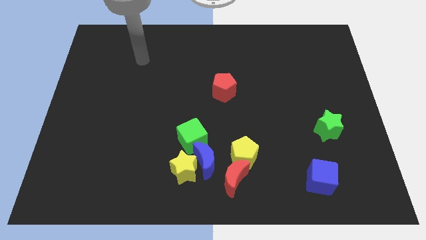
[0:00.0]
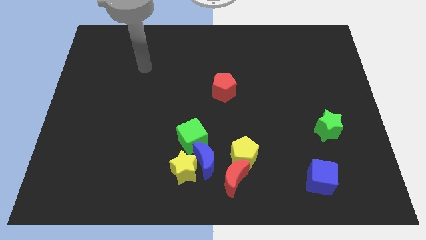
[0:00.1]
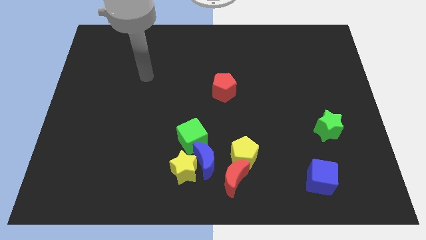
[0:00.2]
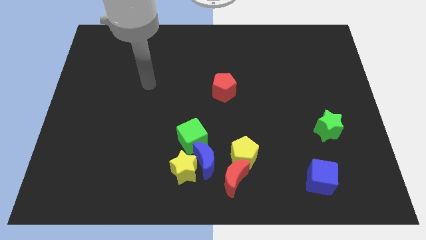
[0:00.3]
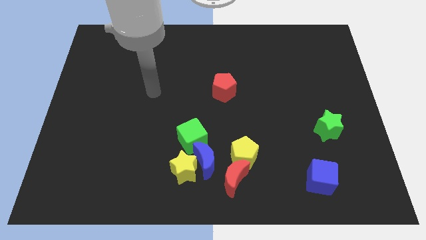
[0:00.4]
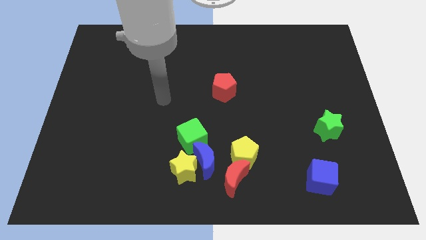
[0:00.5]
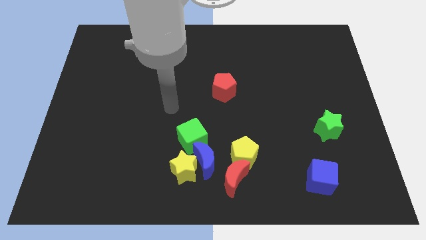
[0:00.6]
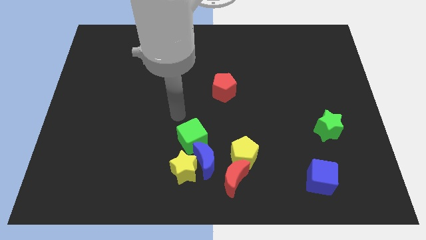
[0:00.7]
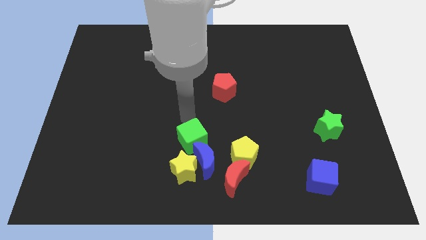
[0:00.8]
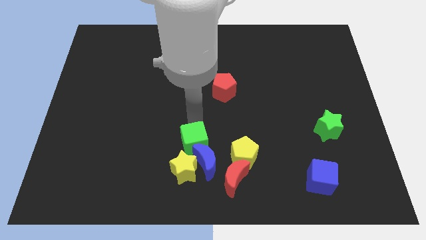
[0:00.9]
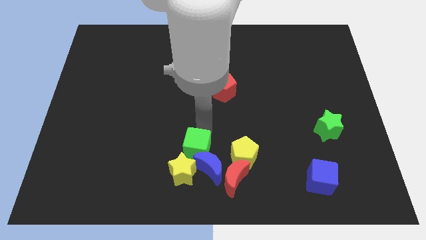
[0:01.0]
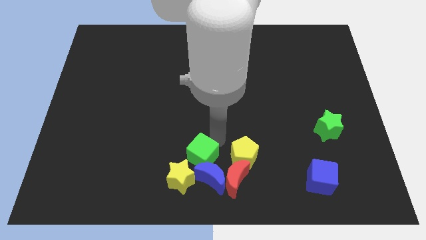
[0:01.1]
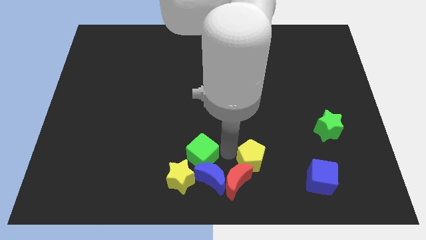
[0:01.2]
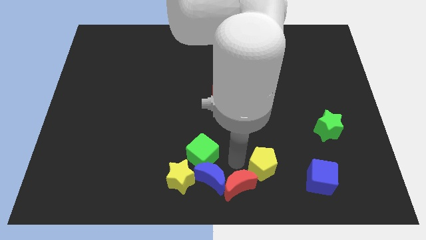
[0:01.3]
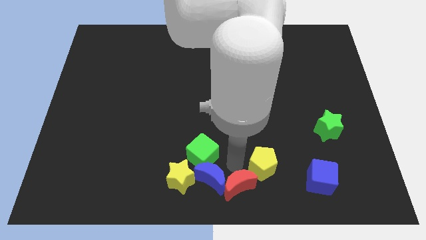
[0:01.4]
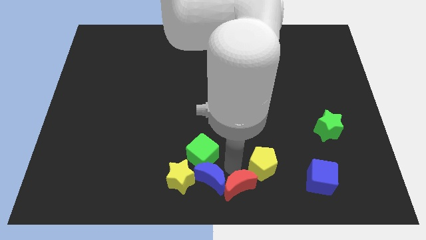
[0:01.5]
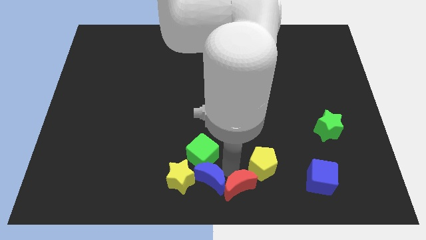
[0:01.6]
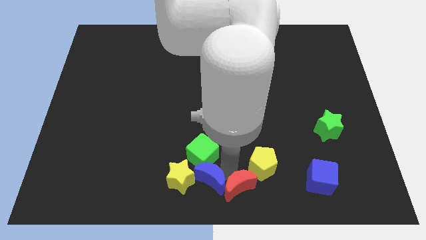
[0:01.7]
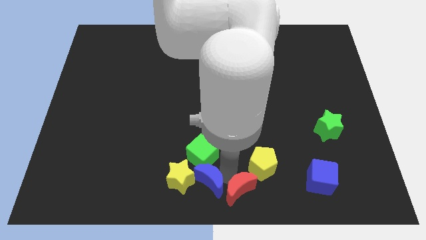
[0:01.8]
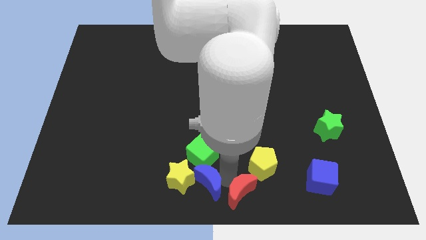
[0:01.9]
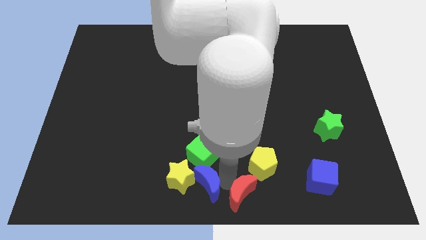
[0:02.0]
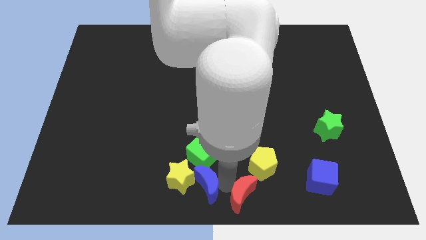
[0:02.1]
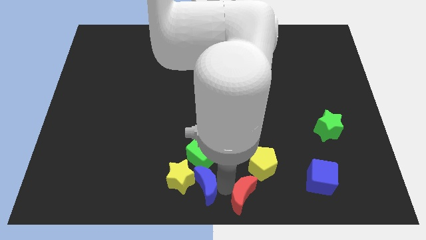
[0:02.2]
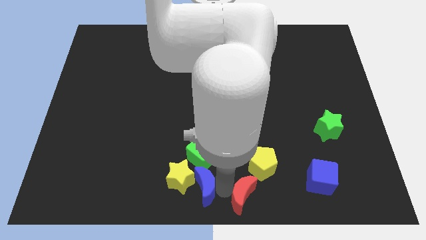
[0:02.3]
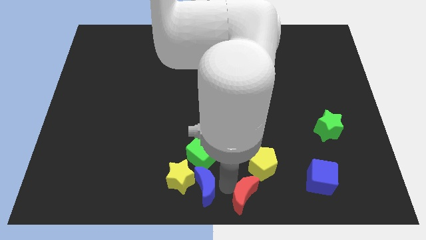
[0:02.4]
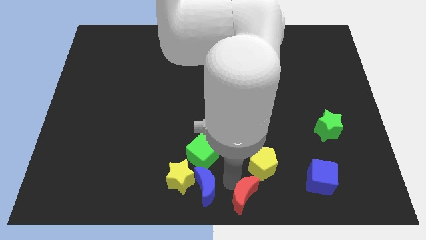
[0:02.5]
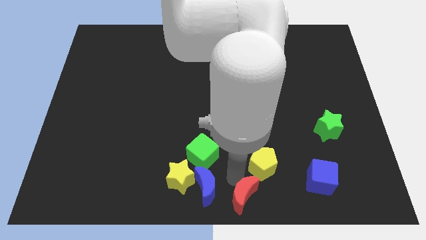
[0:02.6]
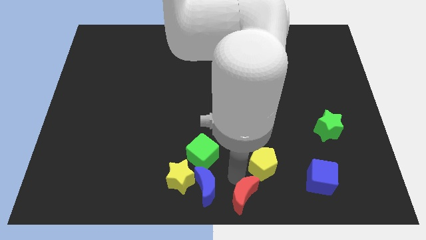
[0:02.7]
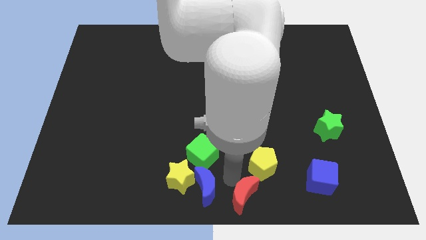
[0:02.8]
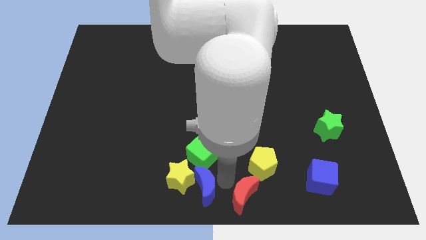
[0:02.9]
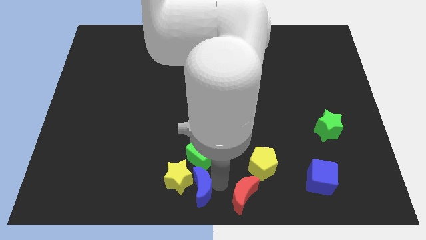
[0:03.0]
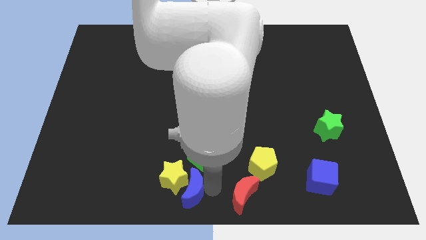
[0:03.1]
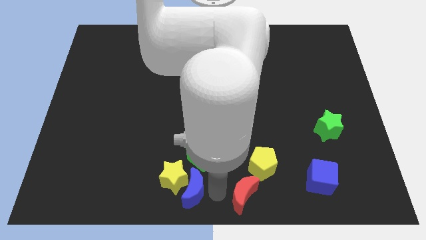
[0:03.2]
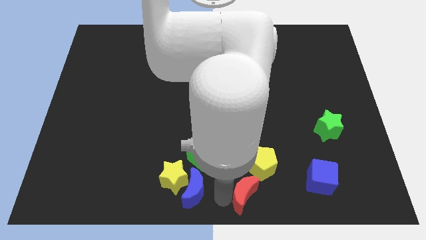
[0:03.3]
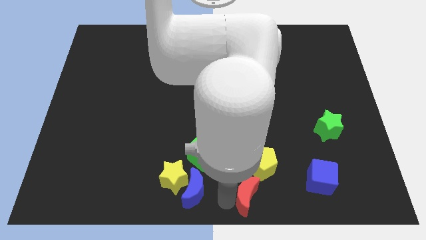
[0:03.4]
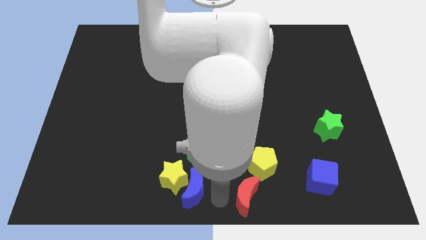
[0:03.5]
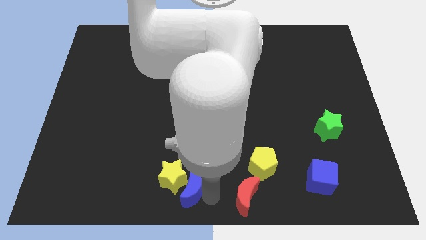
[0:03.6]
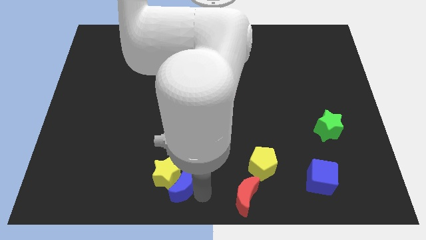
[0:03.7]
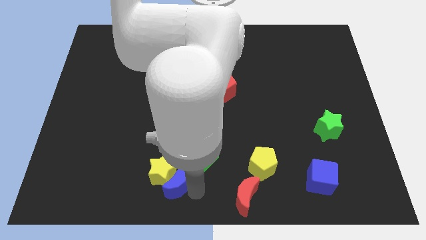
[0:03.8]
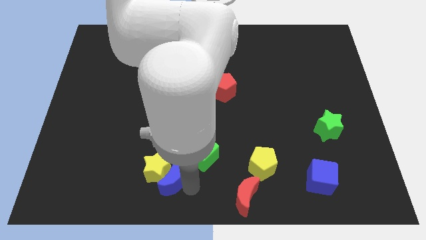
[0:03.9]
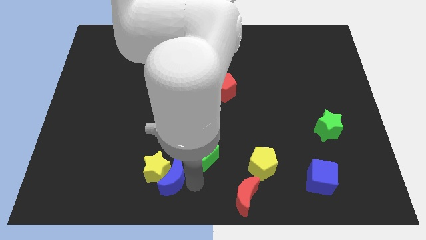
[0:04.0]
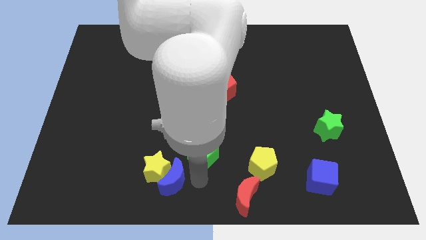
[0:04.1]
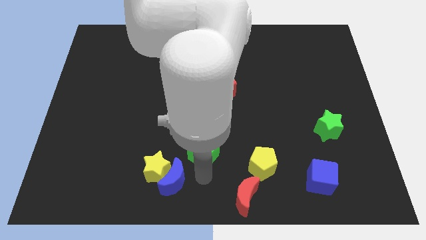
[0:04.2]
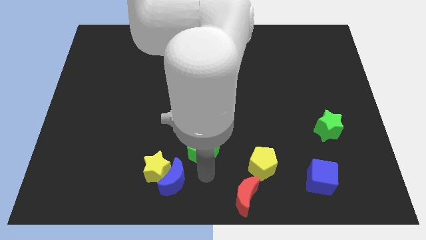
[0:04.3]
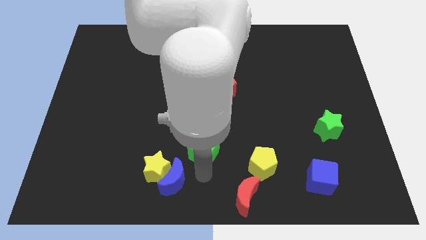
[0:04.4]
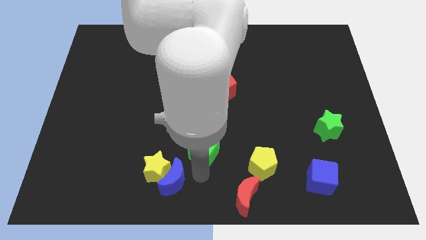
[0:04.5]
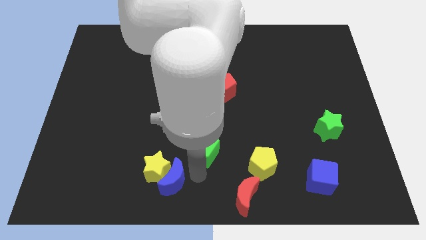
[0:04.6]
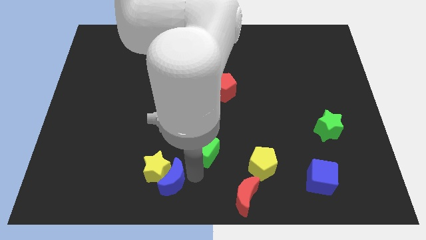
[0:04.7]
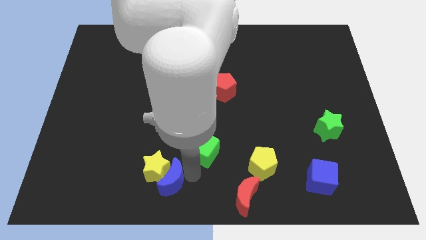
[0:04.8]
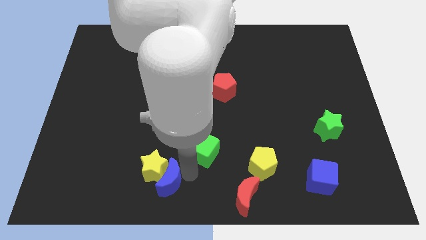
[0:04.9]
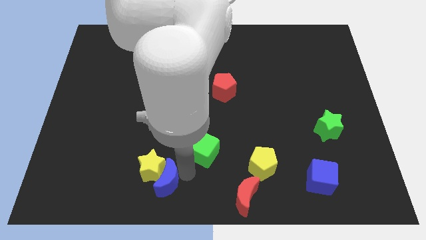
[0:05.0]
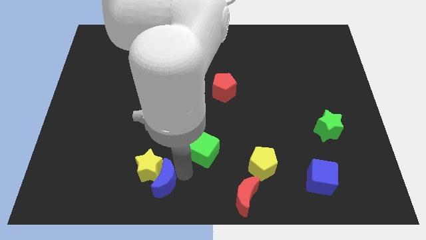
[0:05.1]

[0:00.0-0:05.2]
pull the blue moon apart from the group

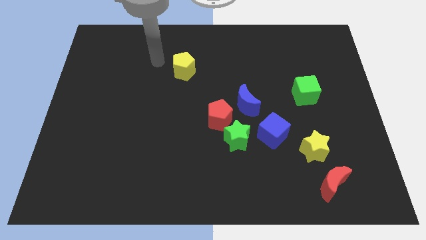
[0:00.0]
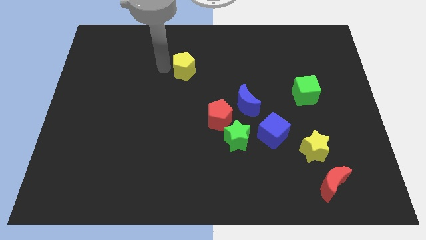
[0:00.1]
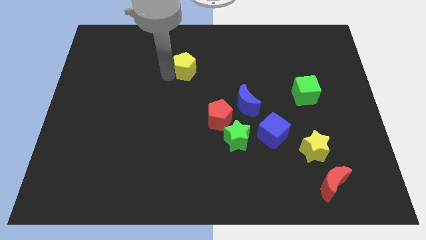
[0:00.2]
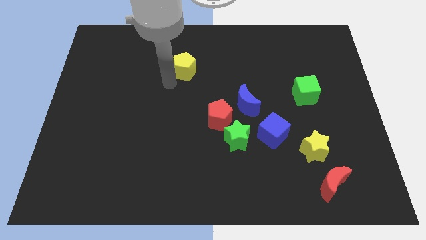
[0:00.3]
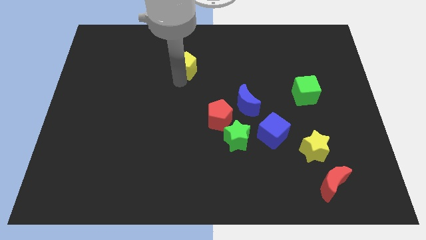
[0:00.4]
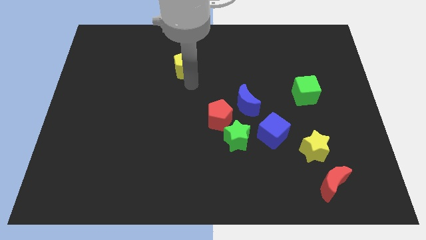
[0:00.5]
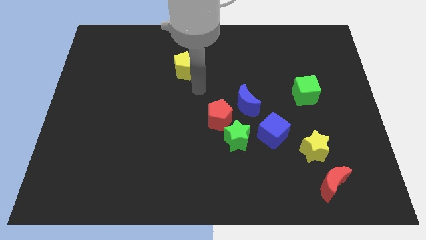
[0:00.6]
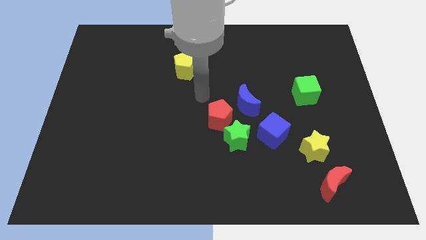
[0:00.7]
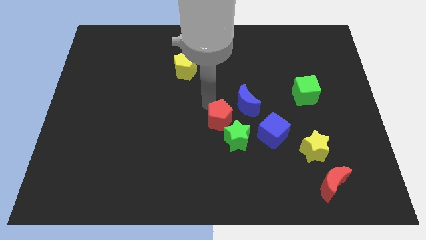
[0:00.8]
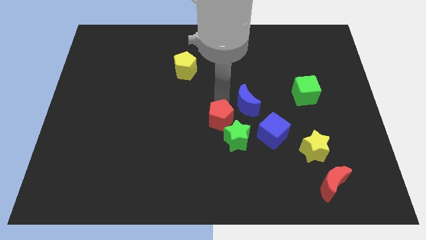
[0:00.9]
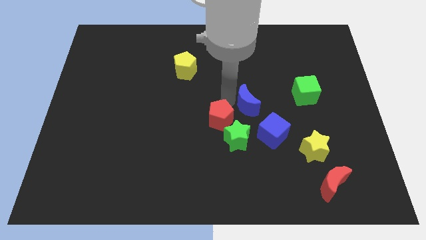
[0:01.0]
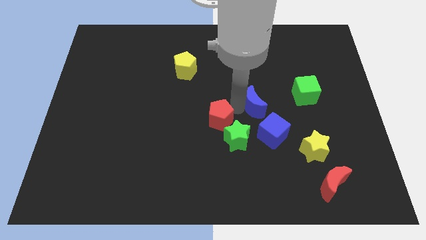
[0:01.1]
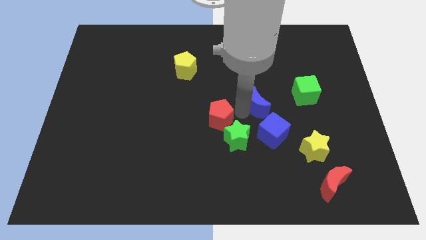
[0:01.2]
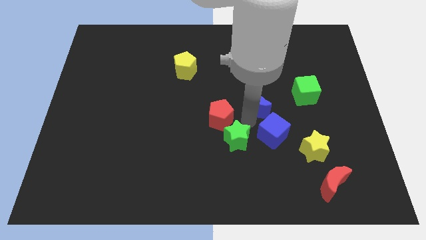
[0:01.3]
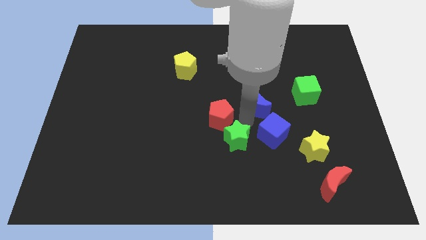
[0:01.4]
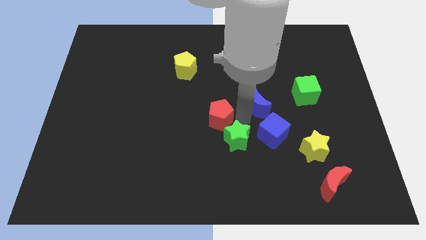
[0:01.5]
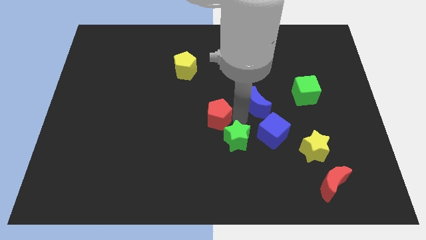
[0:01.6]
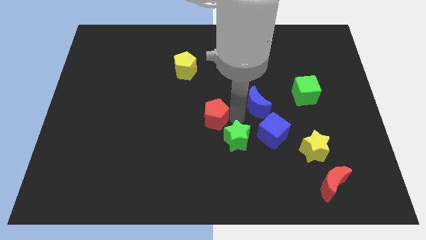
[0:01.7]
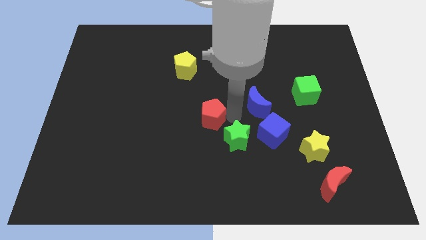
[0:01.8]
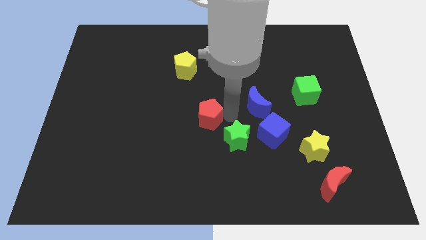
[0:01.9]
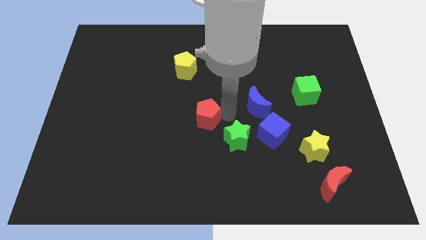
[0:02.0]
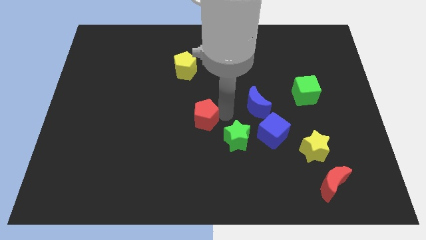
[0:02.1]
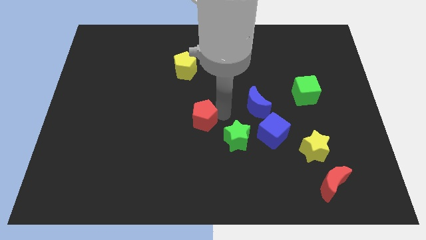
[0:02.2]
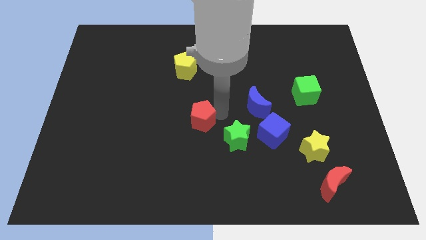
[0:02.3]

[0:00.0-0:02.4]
separate the red pentagon from the green star and blue moon

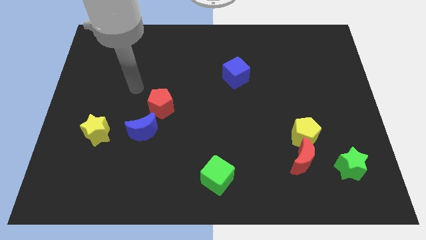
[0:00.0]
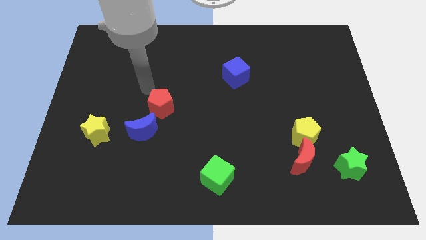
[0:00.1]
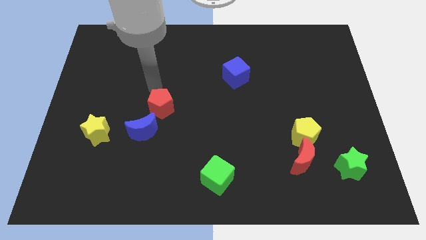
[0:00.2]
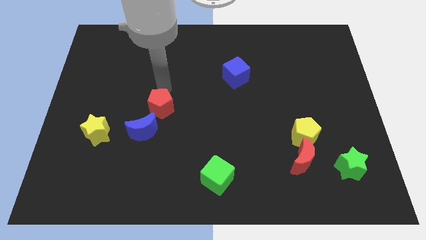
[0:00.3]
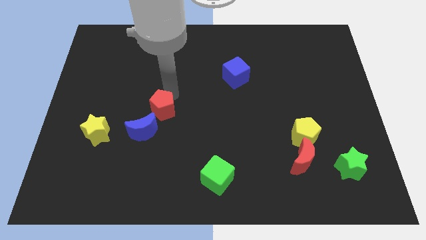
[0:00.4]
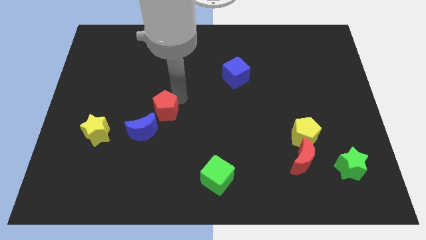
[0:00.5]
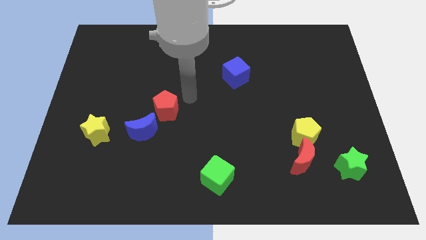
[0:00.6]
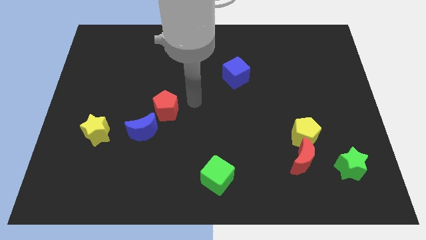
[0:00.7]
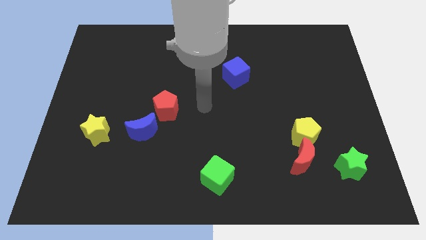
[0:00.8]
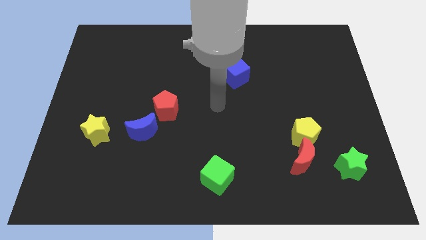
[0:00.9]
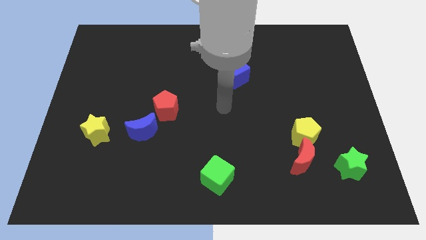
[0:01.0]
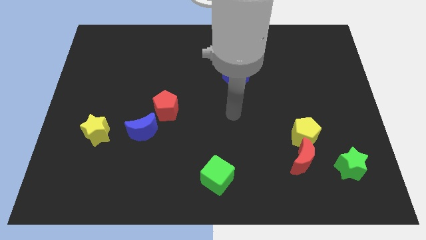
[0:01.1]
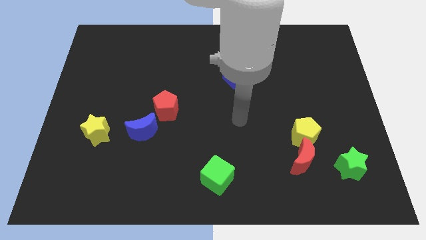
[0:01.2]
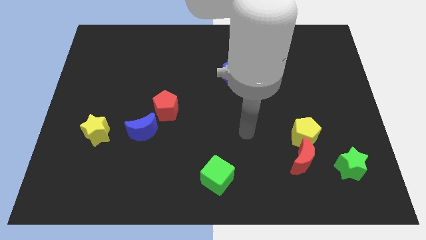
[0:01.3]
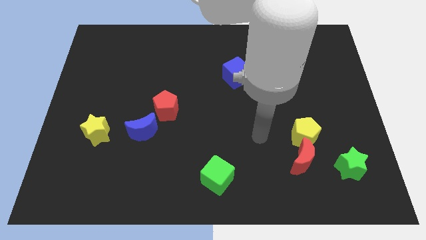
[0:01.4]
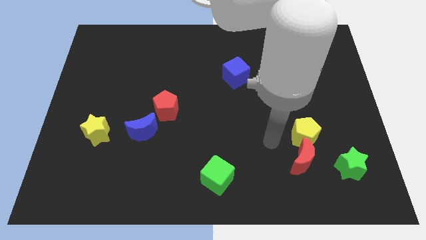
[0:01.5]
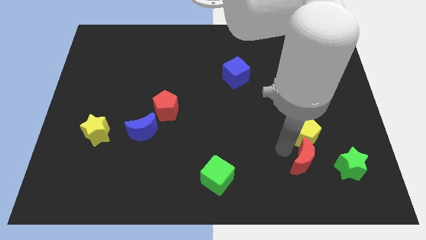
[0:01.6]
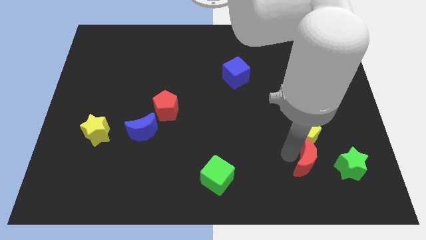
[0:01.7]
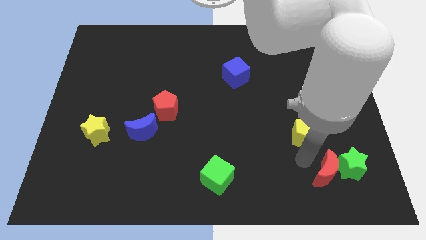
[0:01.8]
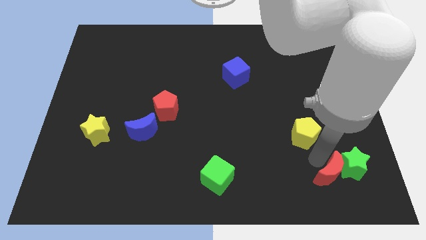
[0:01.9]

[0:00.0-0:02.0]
move the yellow pentagon away from the red moon
